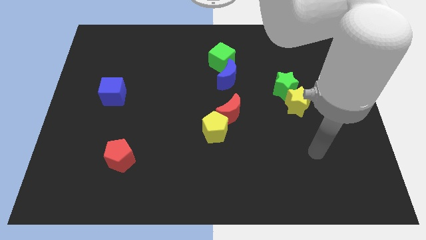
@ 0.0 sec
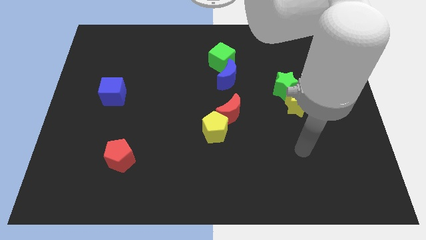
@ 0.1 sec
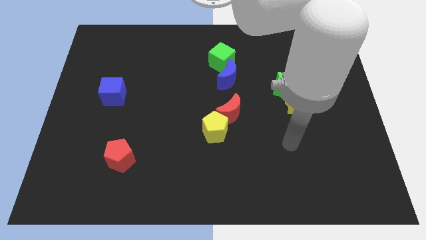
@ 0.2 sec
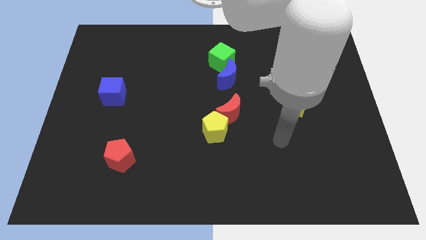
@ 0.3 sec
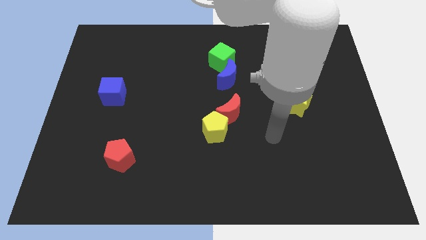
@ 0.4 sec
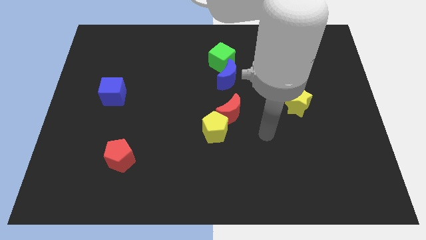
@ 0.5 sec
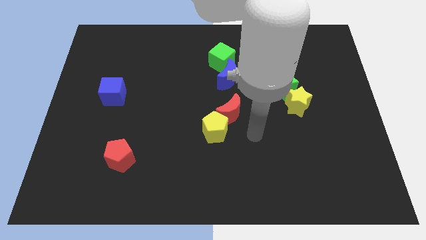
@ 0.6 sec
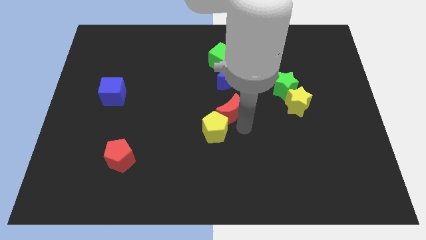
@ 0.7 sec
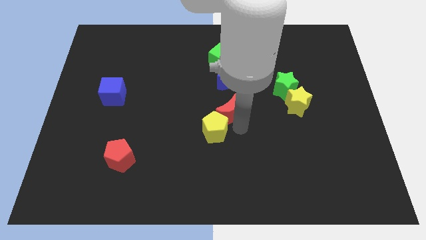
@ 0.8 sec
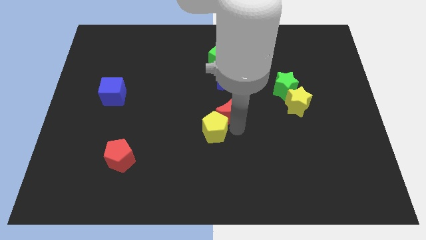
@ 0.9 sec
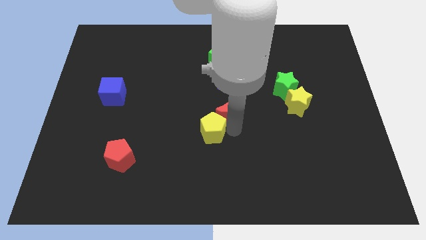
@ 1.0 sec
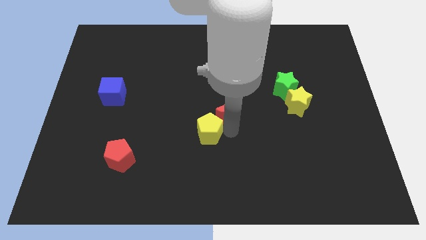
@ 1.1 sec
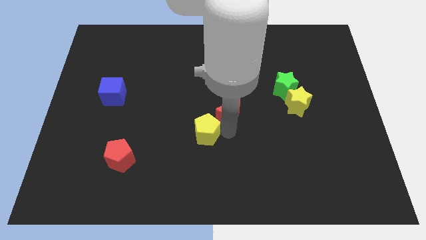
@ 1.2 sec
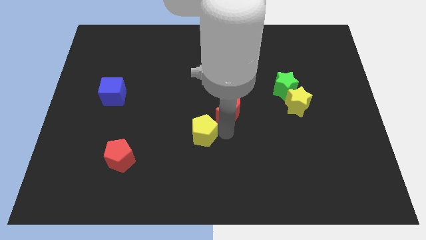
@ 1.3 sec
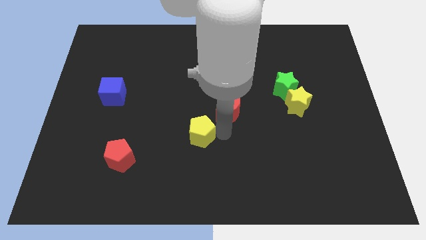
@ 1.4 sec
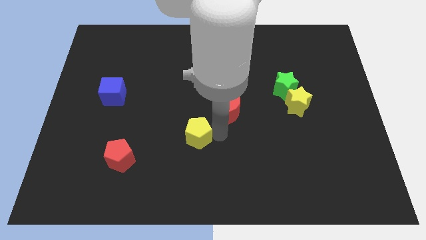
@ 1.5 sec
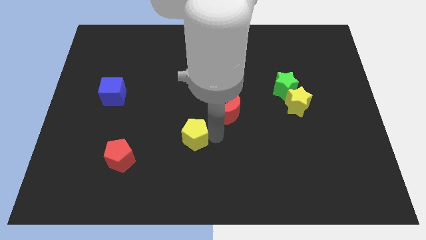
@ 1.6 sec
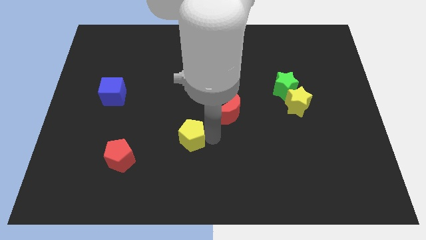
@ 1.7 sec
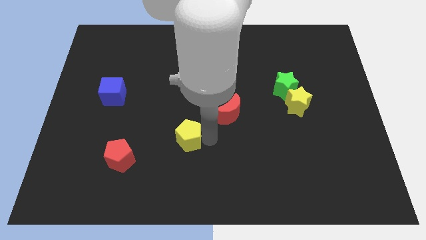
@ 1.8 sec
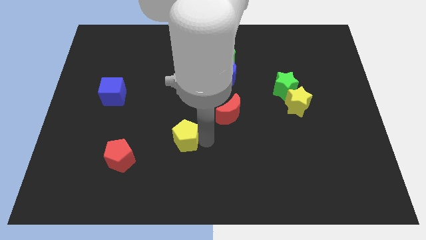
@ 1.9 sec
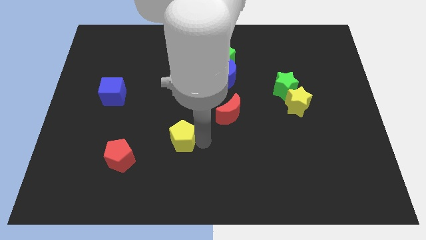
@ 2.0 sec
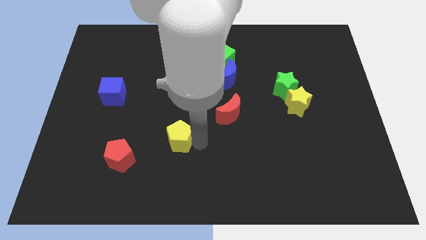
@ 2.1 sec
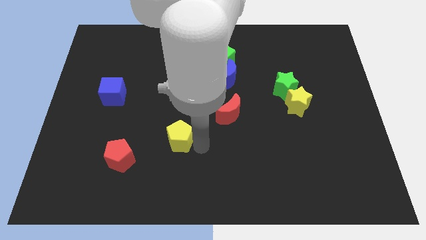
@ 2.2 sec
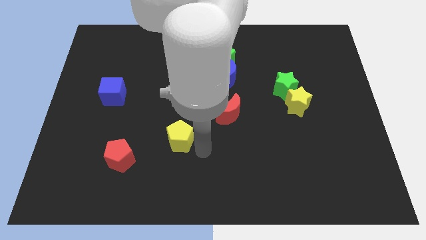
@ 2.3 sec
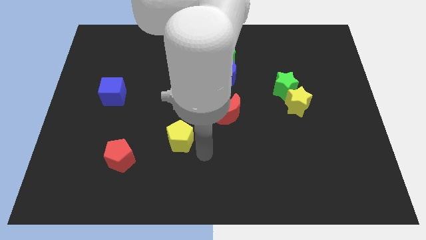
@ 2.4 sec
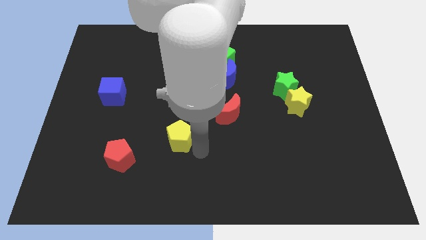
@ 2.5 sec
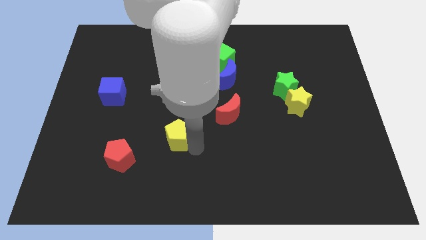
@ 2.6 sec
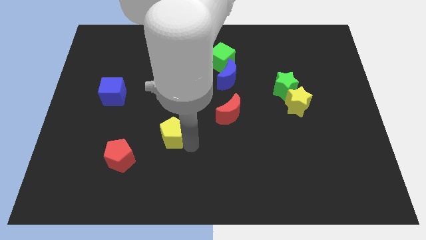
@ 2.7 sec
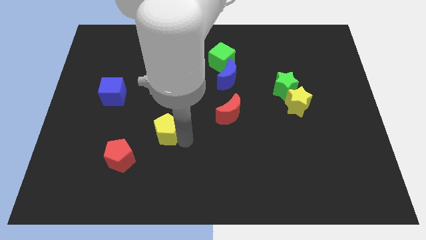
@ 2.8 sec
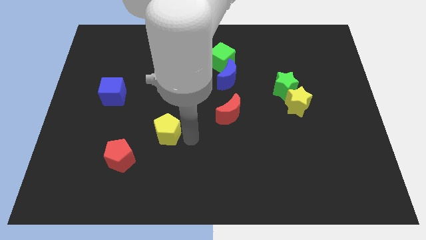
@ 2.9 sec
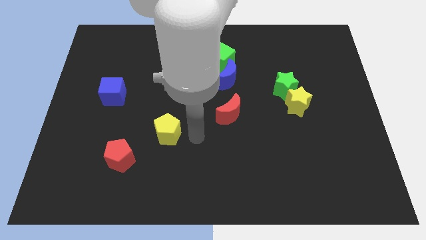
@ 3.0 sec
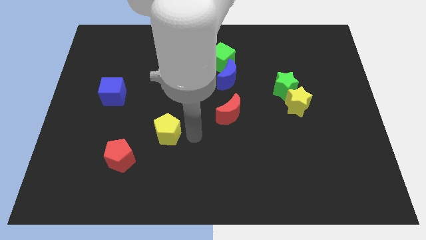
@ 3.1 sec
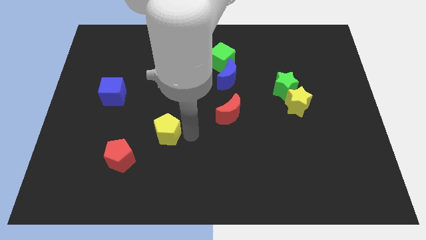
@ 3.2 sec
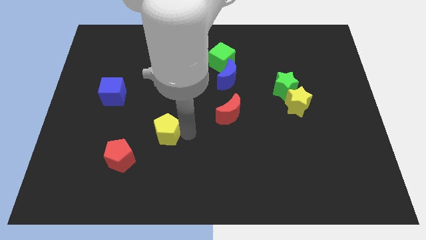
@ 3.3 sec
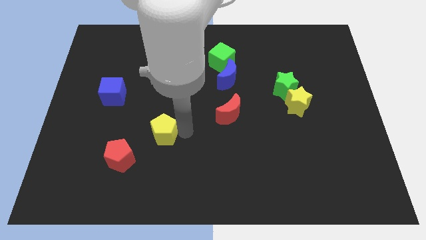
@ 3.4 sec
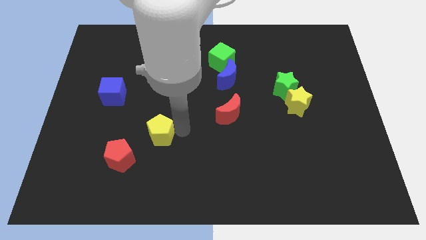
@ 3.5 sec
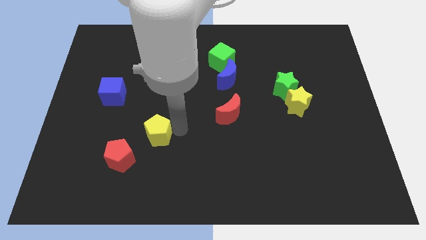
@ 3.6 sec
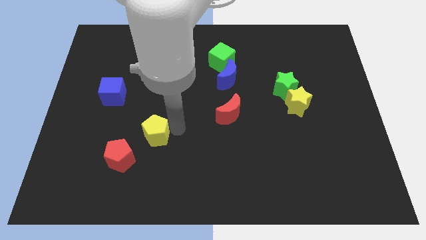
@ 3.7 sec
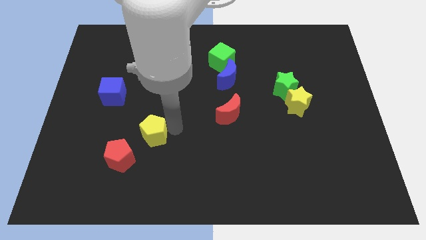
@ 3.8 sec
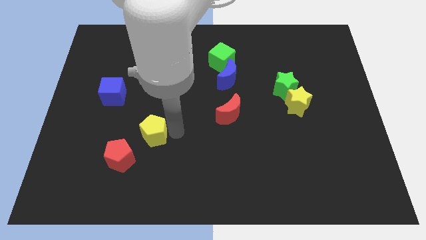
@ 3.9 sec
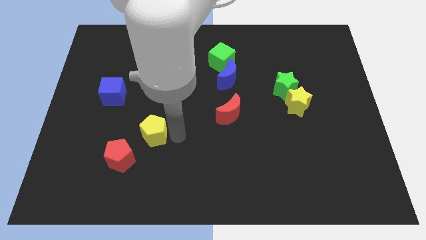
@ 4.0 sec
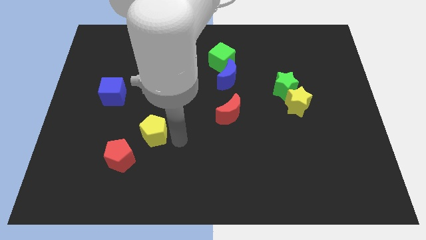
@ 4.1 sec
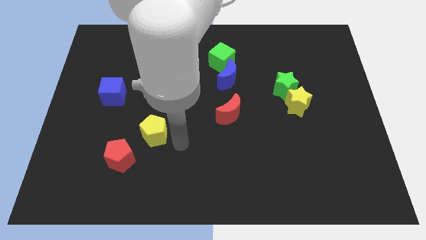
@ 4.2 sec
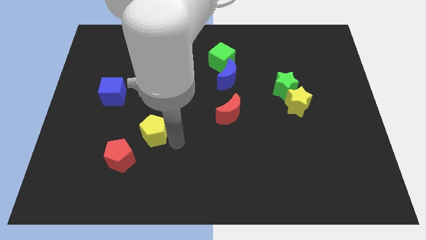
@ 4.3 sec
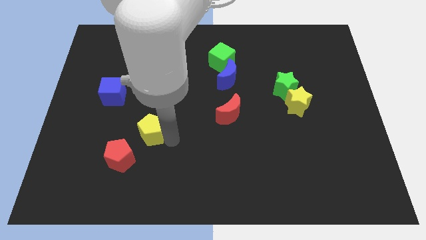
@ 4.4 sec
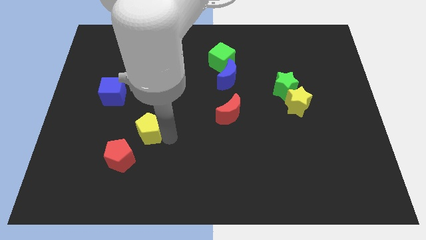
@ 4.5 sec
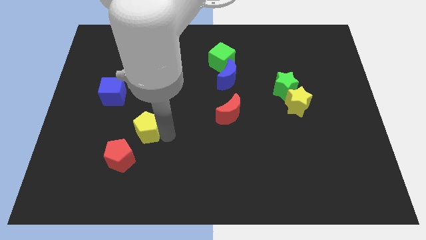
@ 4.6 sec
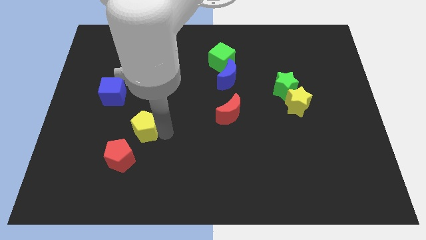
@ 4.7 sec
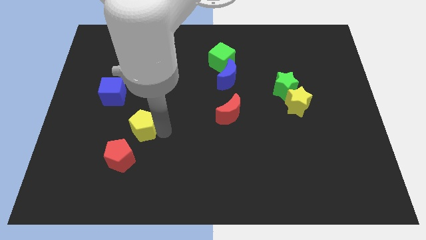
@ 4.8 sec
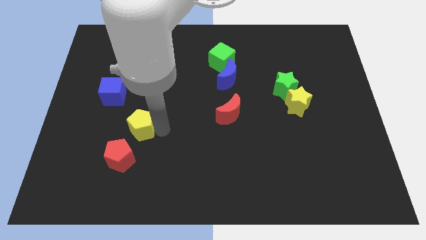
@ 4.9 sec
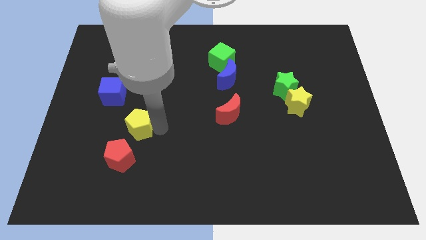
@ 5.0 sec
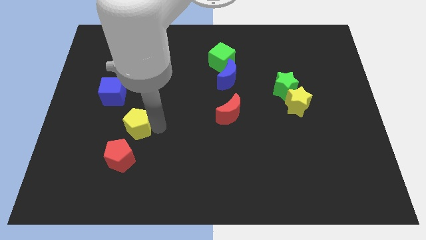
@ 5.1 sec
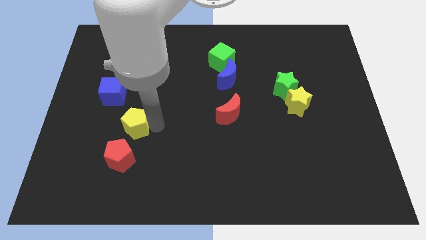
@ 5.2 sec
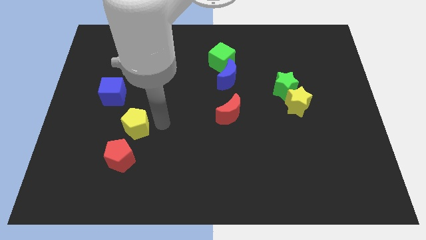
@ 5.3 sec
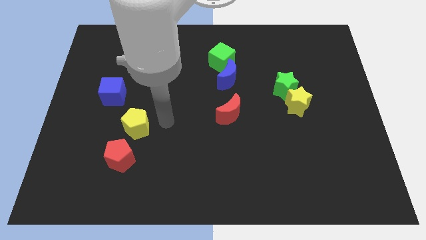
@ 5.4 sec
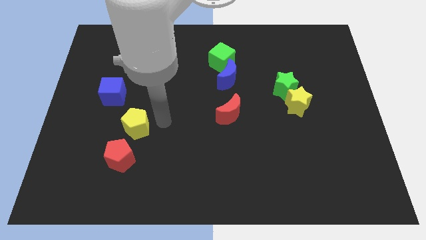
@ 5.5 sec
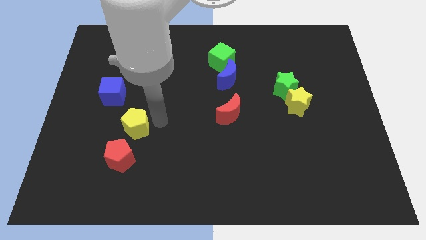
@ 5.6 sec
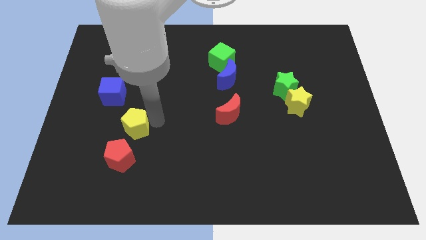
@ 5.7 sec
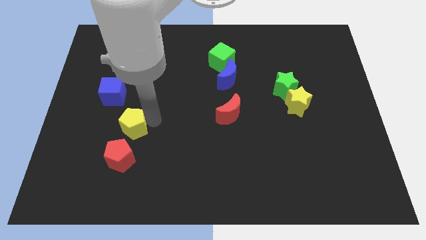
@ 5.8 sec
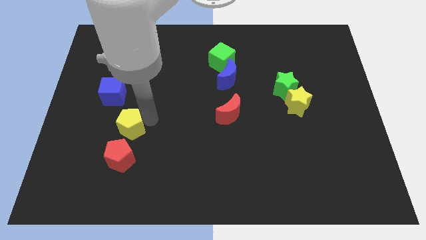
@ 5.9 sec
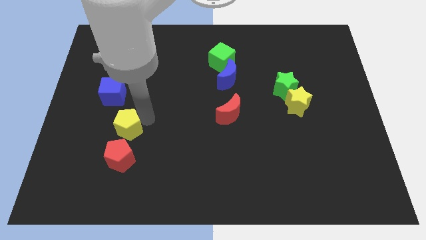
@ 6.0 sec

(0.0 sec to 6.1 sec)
slide the yellow pentagon to the bottom side of the blue cube

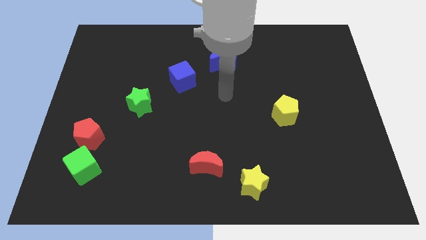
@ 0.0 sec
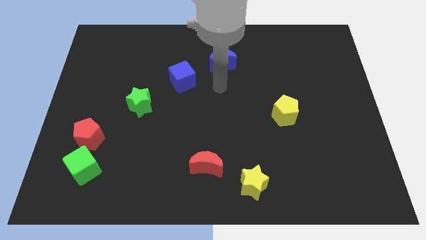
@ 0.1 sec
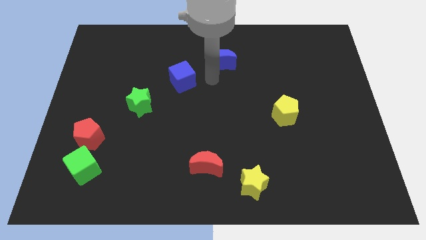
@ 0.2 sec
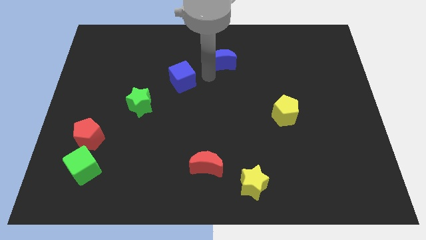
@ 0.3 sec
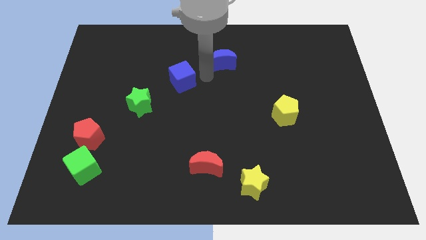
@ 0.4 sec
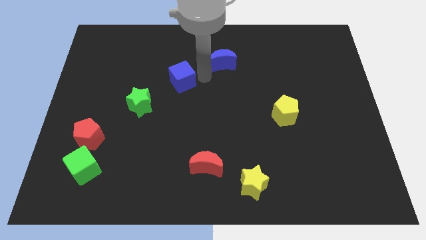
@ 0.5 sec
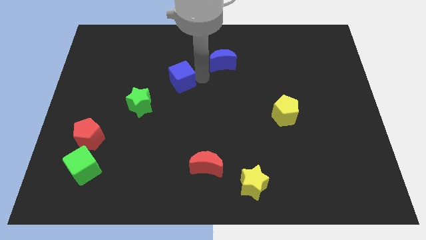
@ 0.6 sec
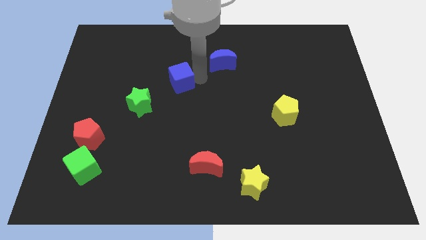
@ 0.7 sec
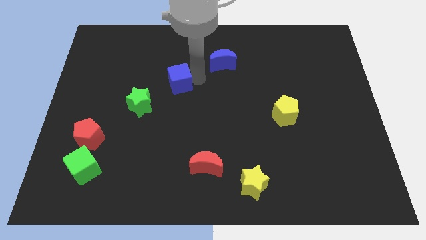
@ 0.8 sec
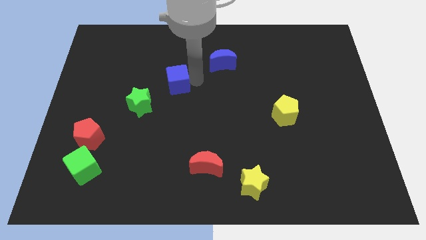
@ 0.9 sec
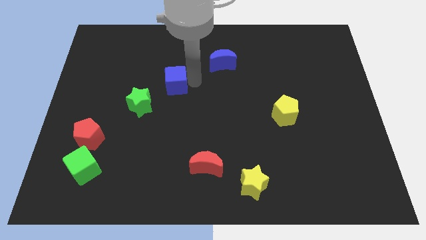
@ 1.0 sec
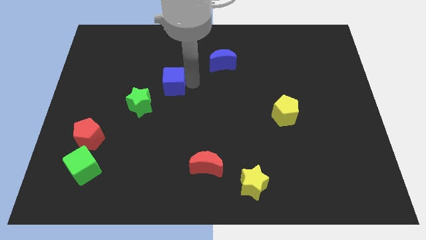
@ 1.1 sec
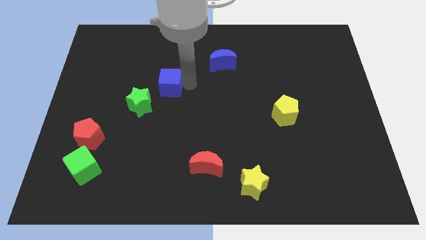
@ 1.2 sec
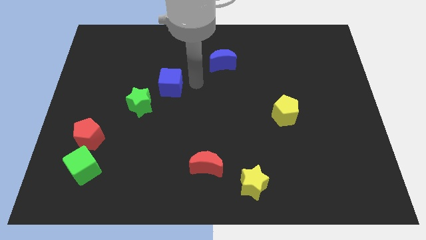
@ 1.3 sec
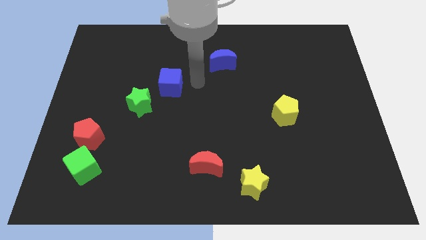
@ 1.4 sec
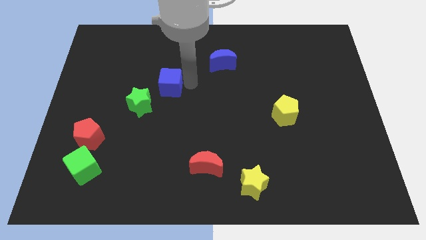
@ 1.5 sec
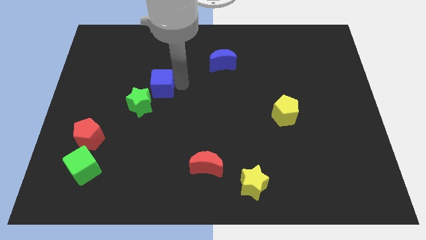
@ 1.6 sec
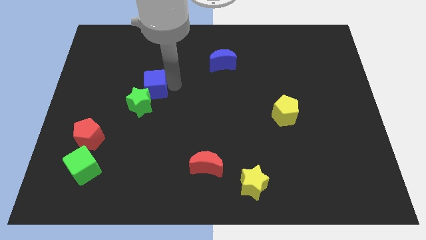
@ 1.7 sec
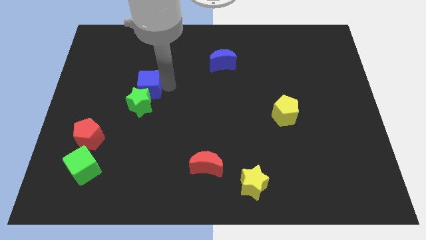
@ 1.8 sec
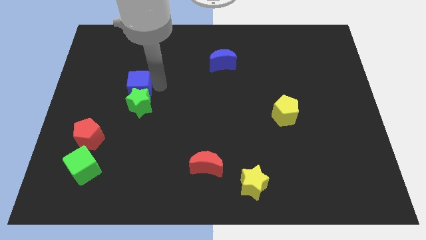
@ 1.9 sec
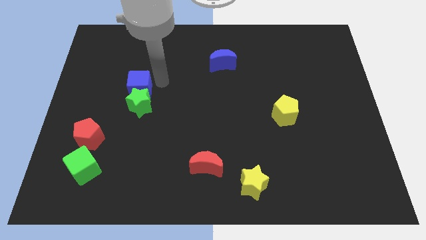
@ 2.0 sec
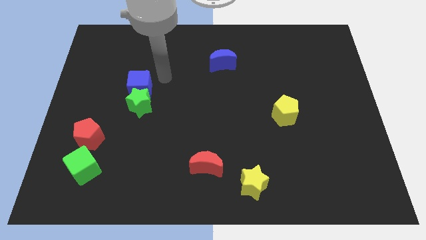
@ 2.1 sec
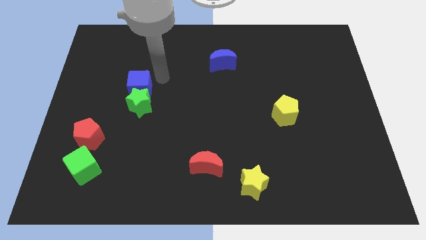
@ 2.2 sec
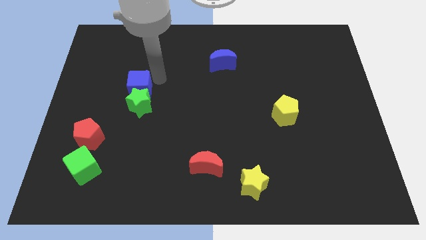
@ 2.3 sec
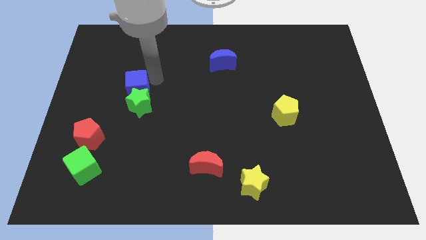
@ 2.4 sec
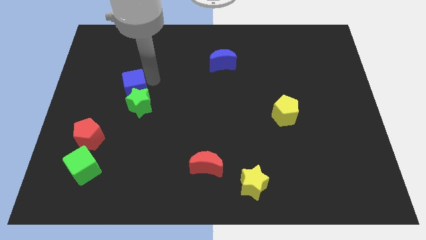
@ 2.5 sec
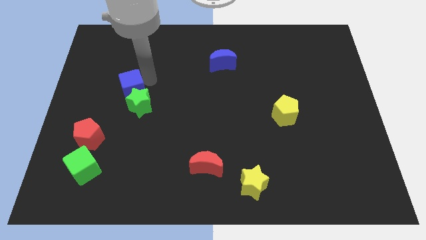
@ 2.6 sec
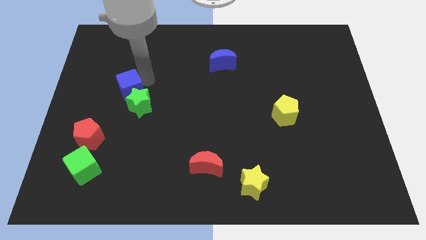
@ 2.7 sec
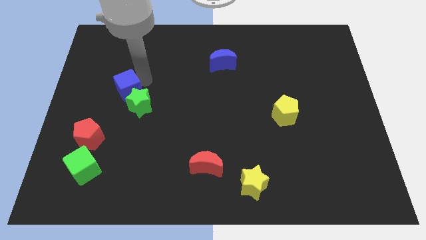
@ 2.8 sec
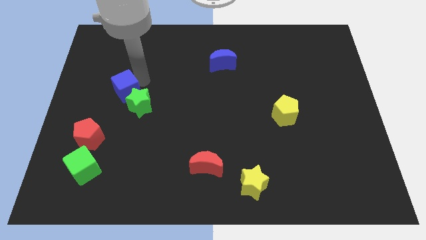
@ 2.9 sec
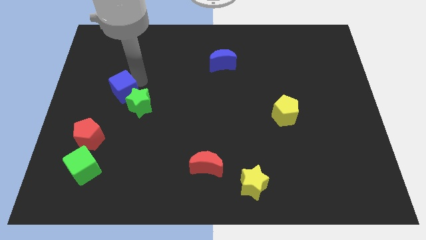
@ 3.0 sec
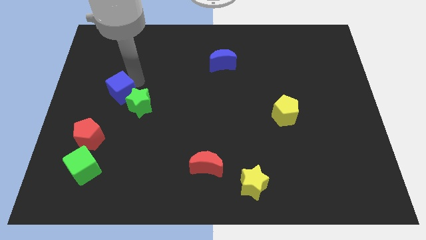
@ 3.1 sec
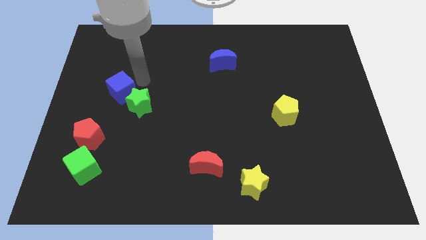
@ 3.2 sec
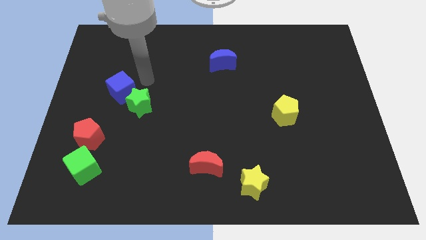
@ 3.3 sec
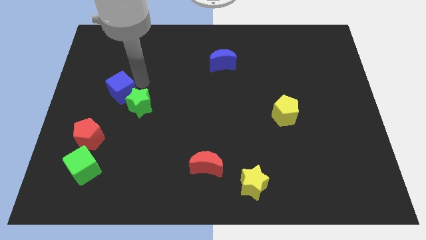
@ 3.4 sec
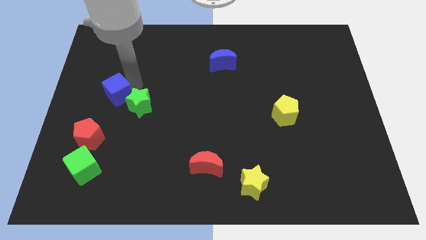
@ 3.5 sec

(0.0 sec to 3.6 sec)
put the blue cube to the top side of the red pentagon
